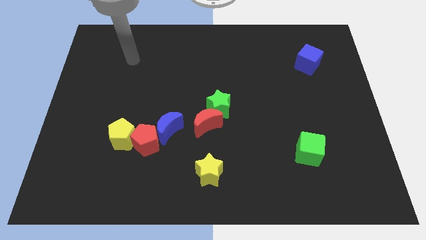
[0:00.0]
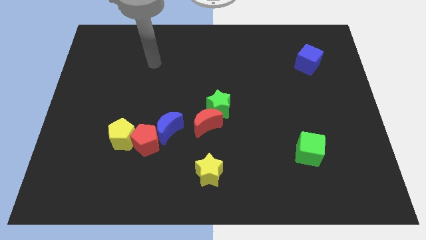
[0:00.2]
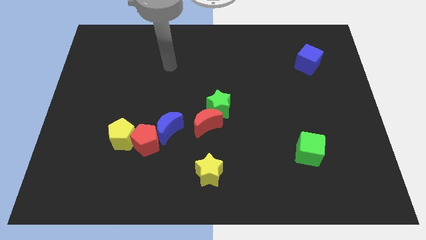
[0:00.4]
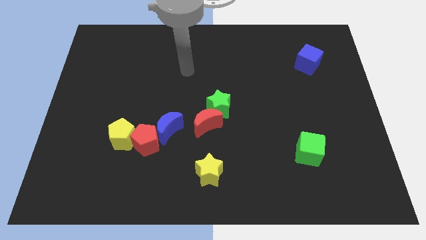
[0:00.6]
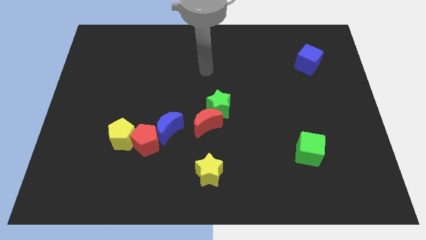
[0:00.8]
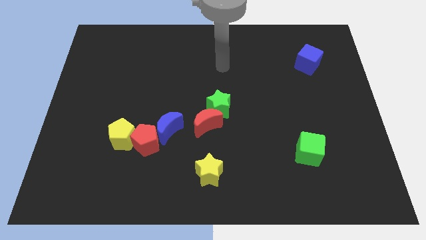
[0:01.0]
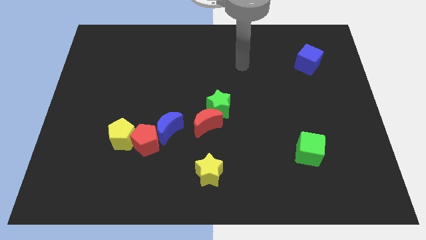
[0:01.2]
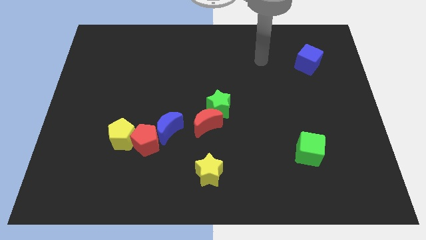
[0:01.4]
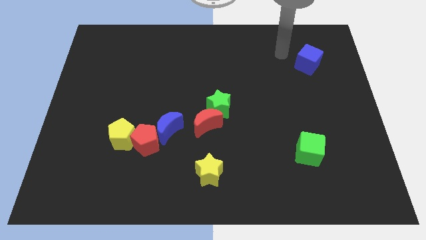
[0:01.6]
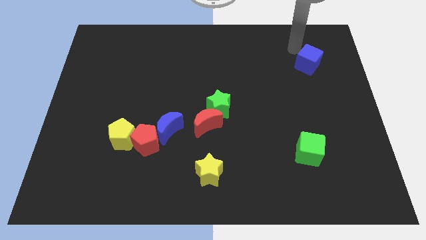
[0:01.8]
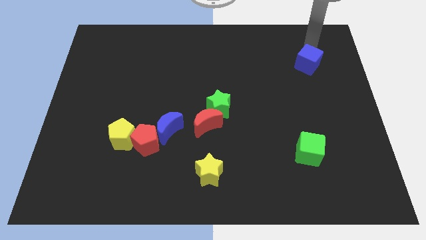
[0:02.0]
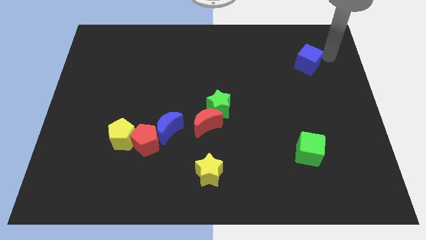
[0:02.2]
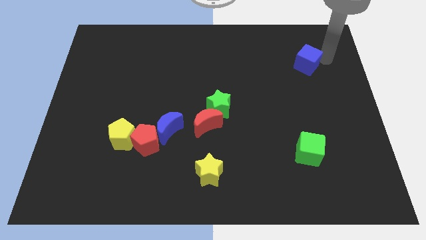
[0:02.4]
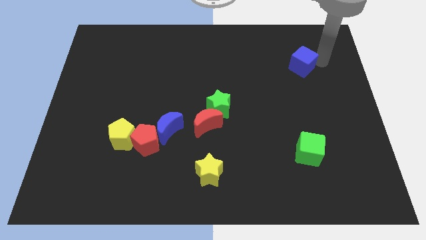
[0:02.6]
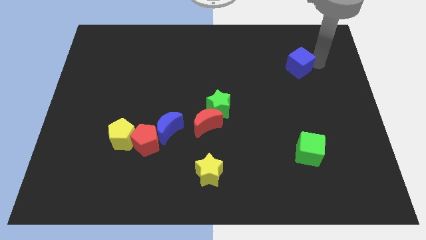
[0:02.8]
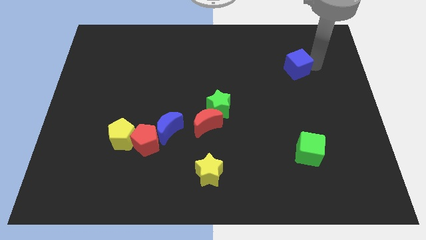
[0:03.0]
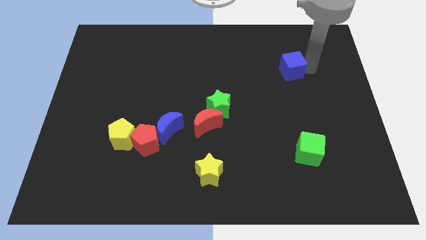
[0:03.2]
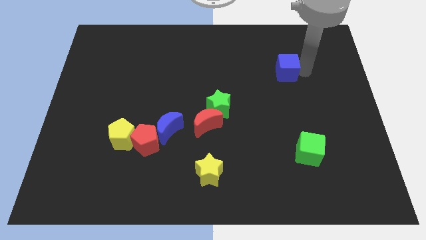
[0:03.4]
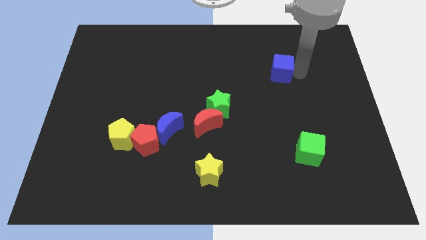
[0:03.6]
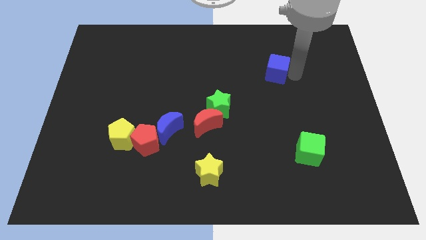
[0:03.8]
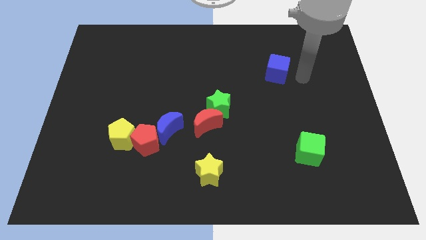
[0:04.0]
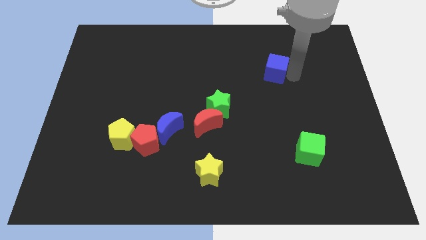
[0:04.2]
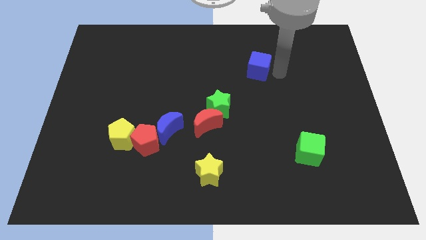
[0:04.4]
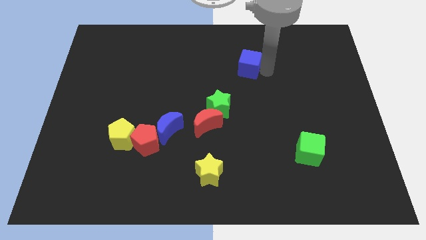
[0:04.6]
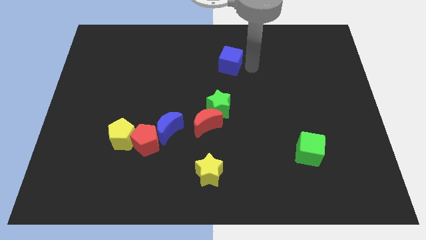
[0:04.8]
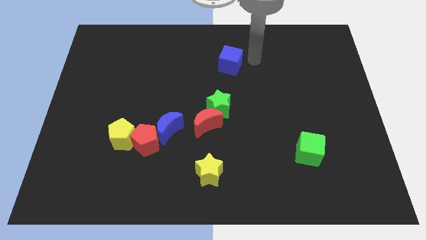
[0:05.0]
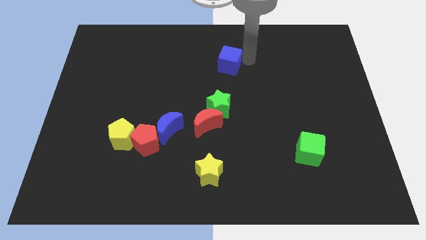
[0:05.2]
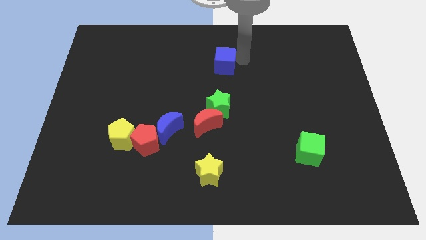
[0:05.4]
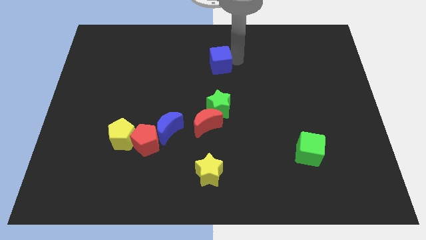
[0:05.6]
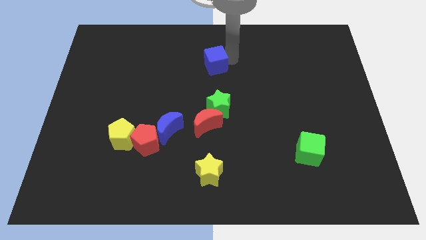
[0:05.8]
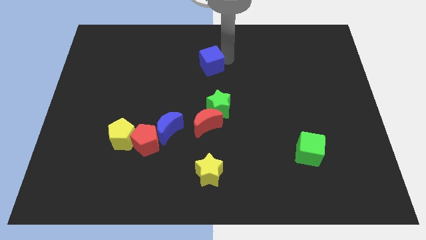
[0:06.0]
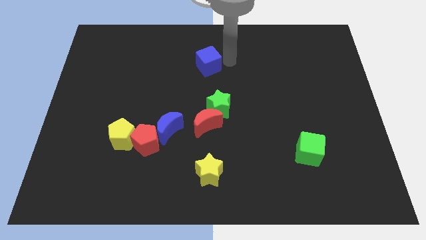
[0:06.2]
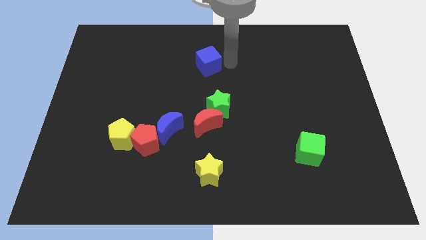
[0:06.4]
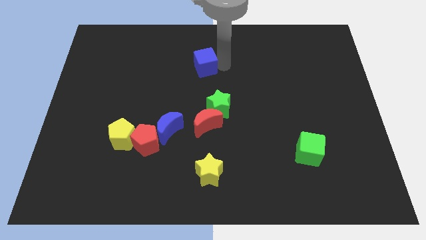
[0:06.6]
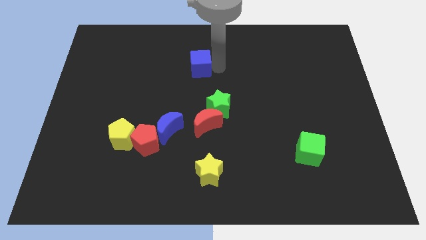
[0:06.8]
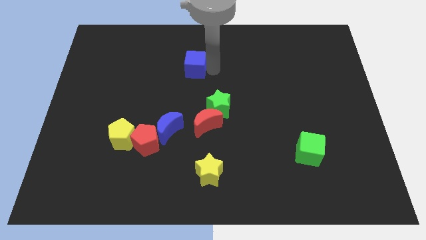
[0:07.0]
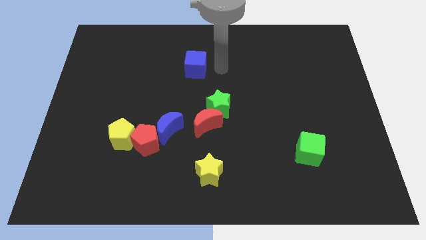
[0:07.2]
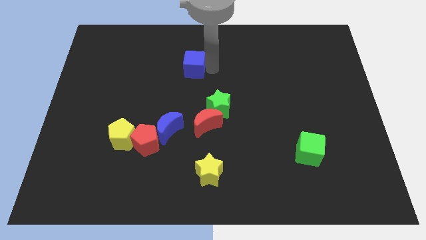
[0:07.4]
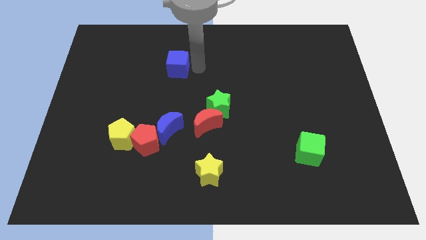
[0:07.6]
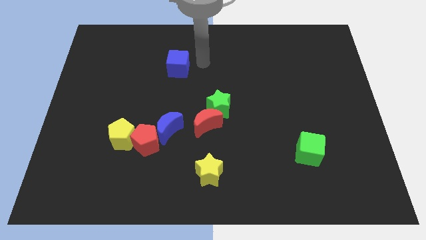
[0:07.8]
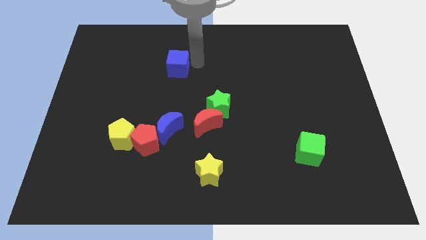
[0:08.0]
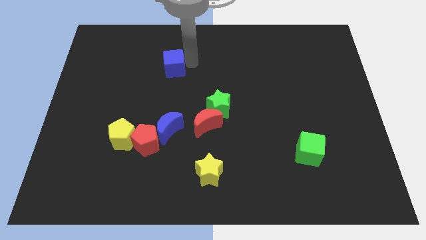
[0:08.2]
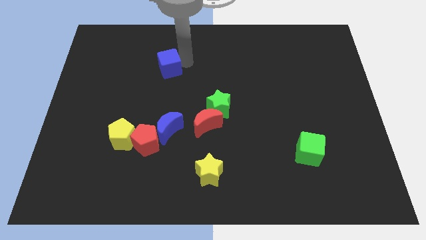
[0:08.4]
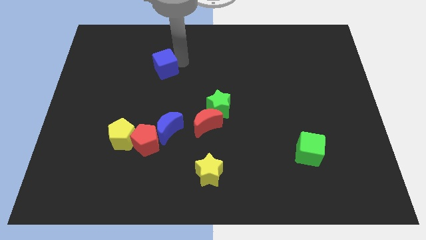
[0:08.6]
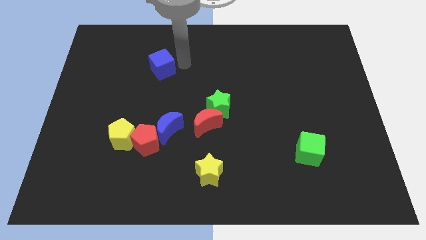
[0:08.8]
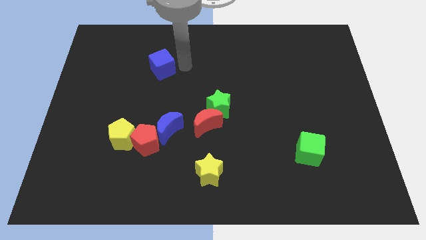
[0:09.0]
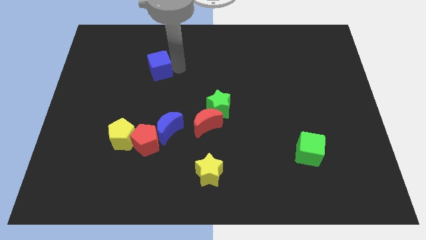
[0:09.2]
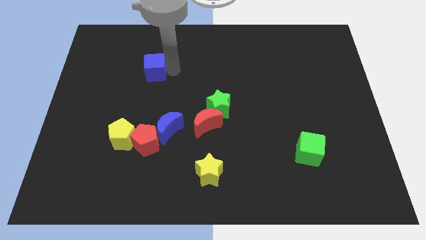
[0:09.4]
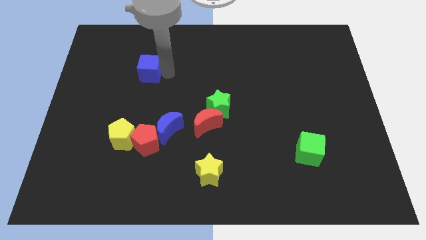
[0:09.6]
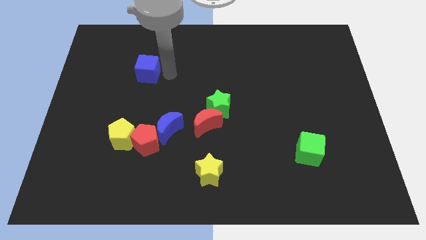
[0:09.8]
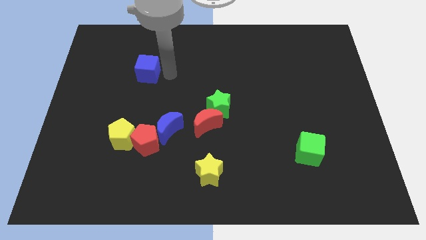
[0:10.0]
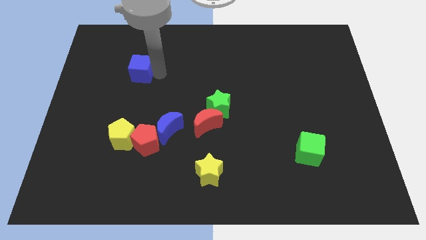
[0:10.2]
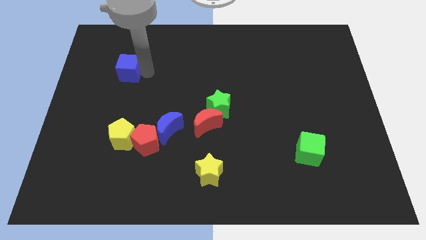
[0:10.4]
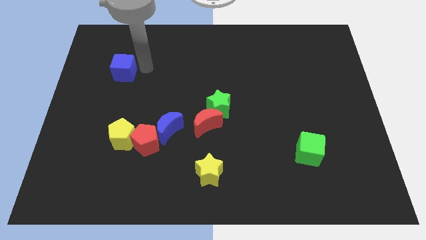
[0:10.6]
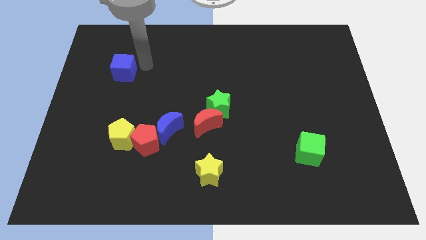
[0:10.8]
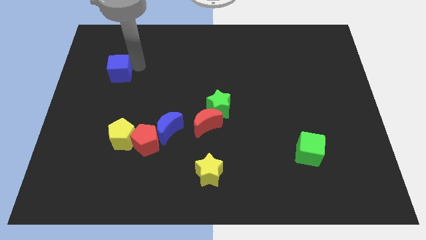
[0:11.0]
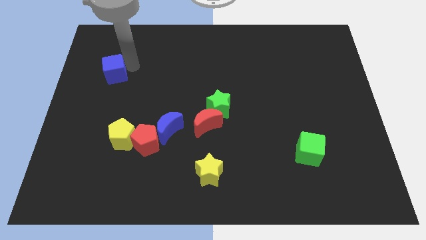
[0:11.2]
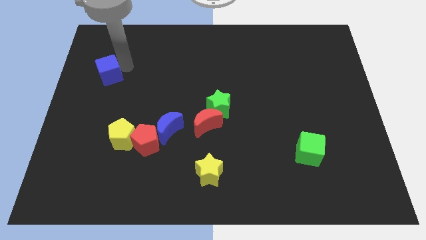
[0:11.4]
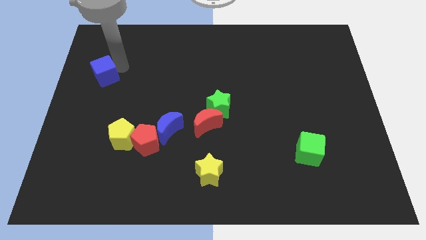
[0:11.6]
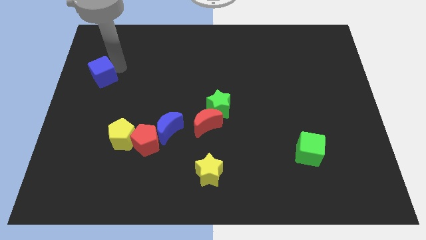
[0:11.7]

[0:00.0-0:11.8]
move the blue cube to the center left

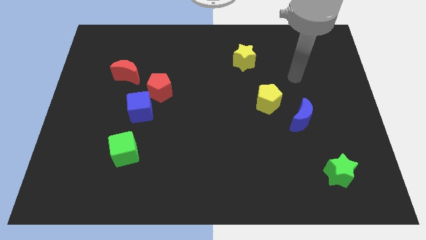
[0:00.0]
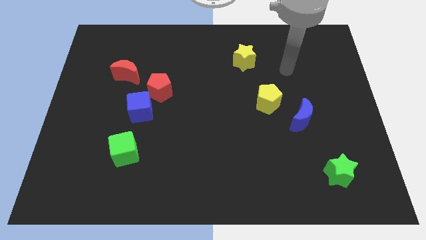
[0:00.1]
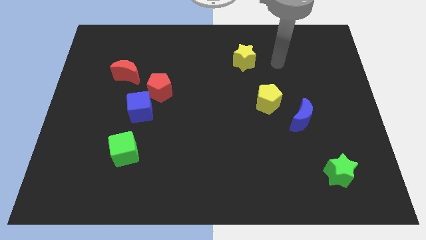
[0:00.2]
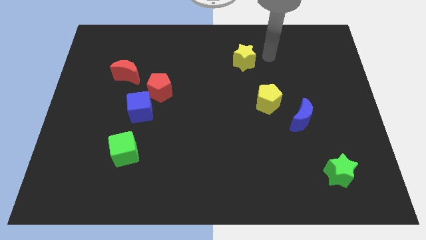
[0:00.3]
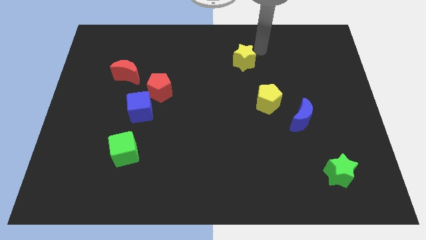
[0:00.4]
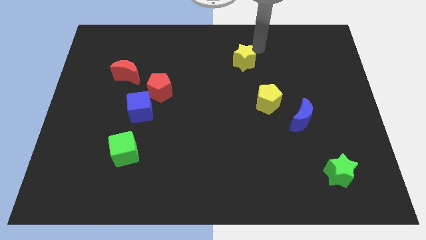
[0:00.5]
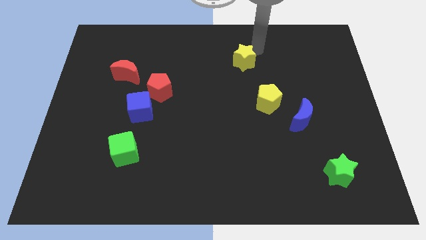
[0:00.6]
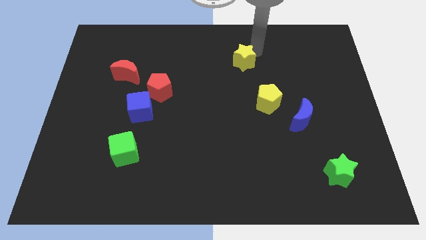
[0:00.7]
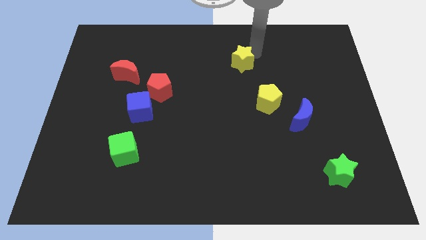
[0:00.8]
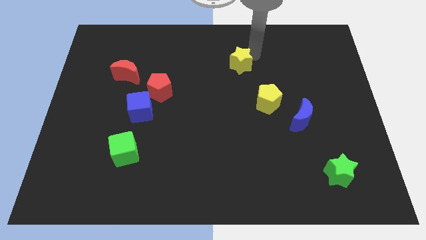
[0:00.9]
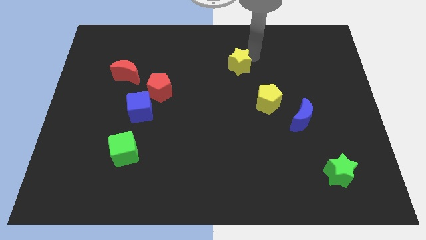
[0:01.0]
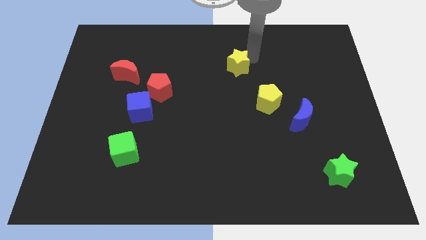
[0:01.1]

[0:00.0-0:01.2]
put the yellow star to the middle of the board
